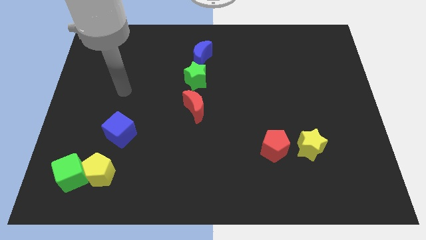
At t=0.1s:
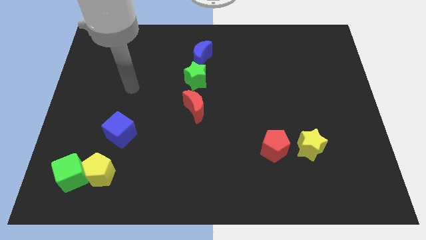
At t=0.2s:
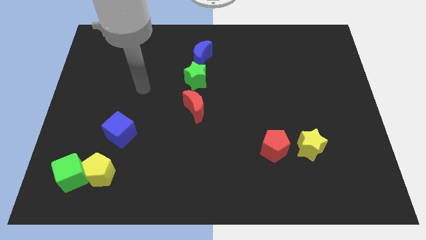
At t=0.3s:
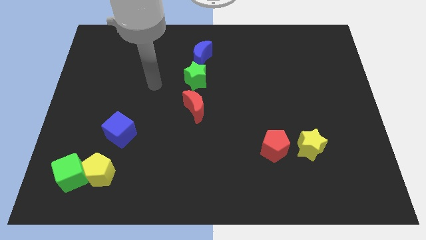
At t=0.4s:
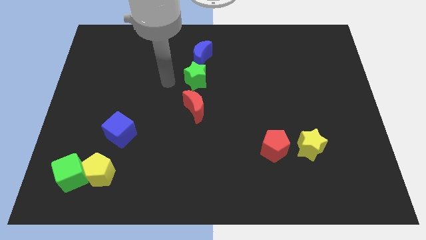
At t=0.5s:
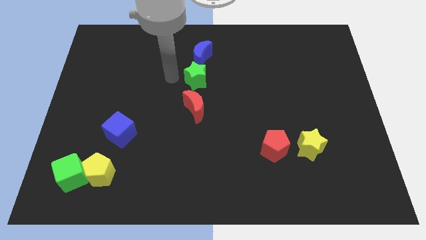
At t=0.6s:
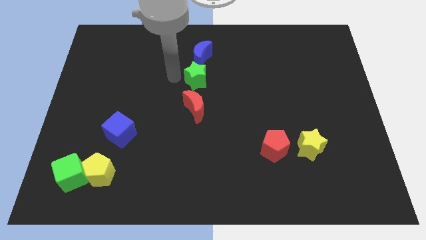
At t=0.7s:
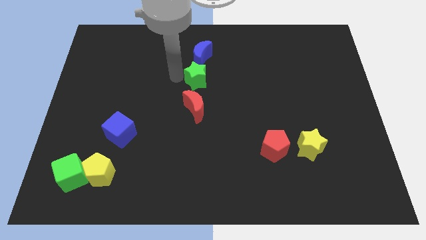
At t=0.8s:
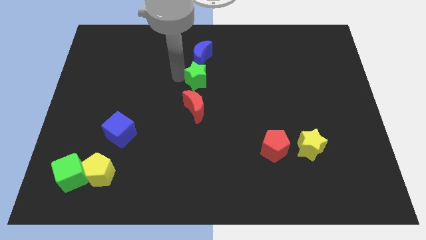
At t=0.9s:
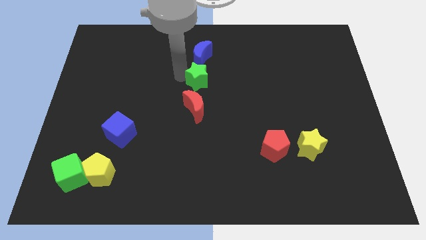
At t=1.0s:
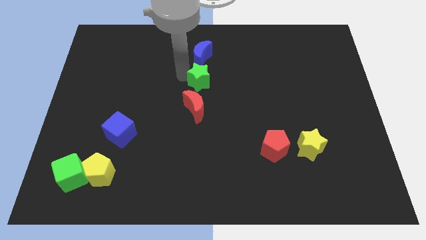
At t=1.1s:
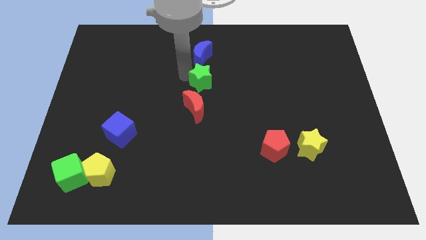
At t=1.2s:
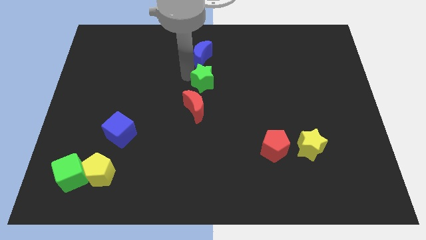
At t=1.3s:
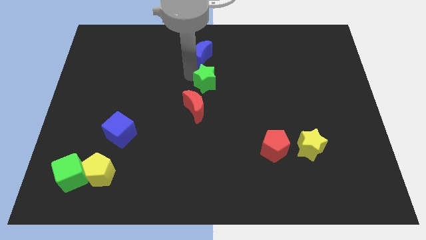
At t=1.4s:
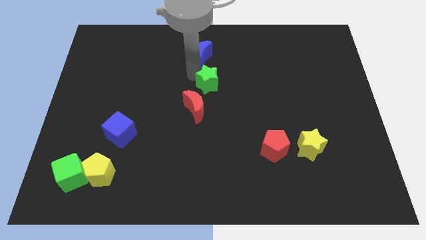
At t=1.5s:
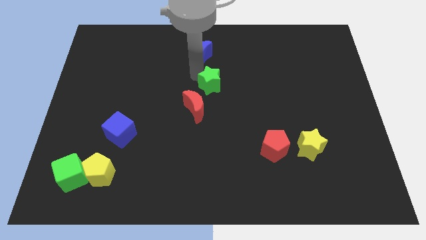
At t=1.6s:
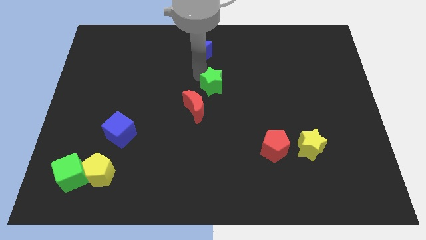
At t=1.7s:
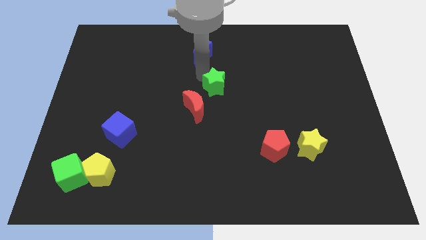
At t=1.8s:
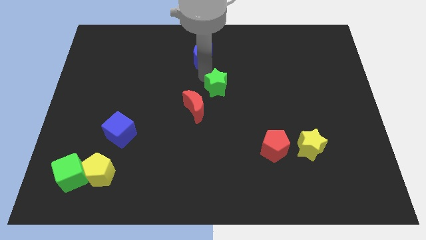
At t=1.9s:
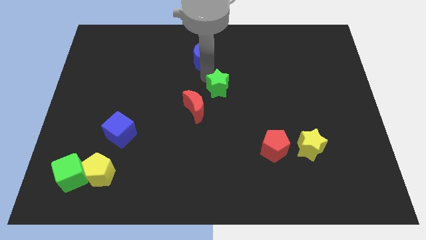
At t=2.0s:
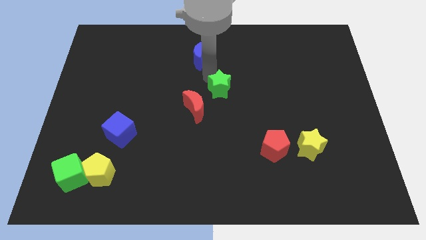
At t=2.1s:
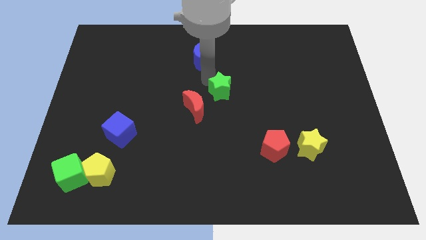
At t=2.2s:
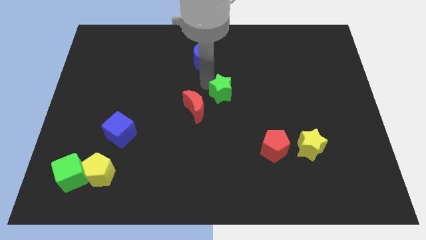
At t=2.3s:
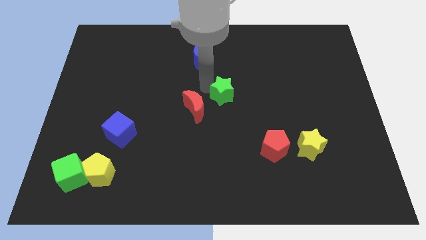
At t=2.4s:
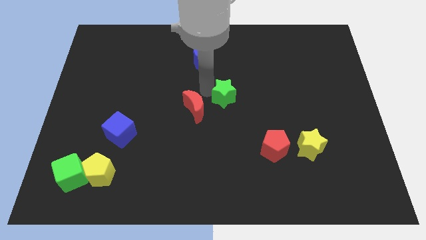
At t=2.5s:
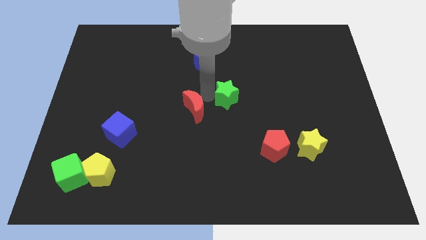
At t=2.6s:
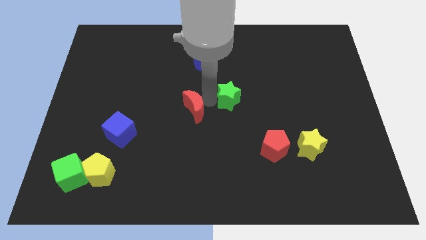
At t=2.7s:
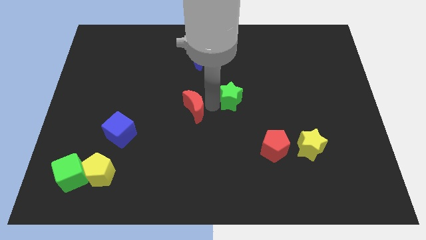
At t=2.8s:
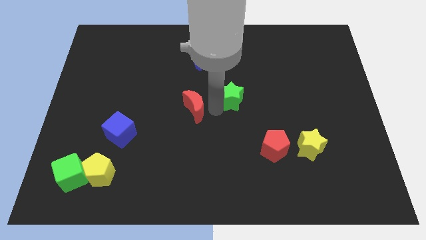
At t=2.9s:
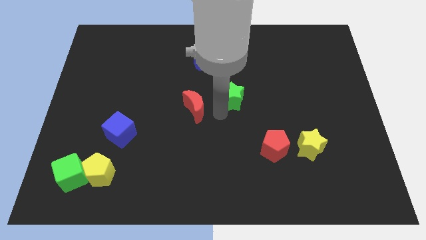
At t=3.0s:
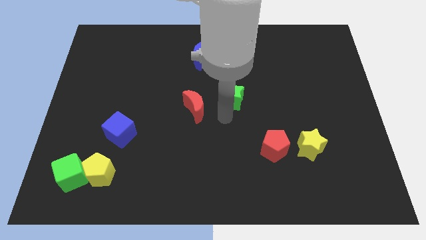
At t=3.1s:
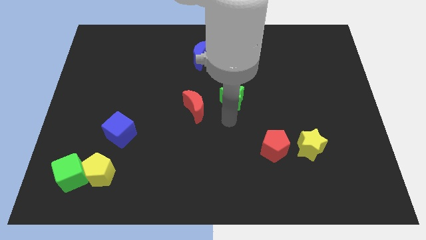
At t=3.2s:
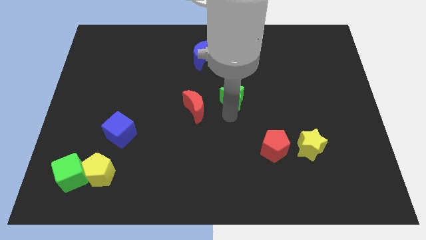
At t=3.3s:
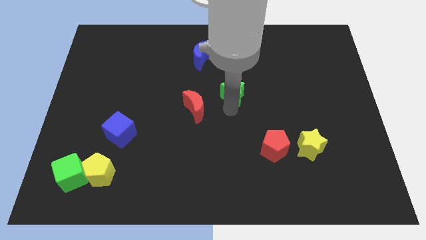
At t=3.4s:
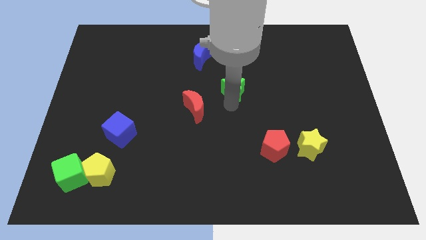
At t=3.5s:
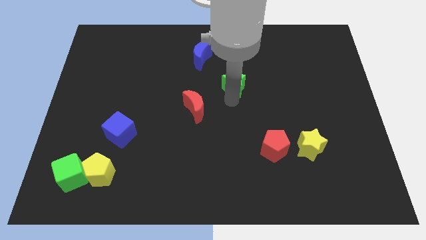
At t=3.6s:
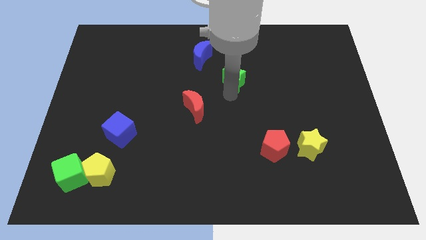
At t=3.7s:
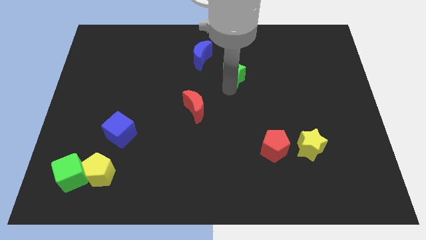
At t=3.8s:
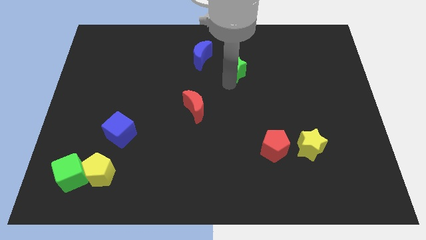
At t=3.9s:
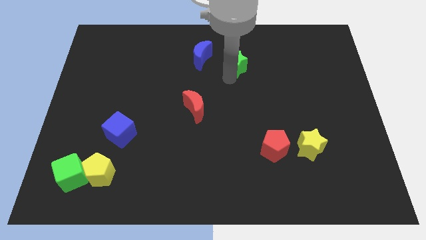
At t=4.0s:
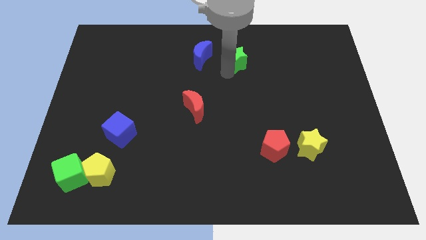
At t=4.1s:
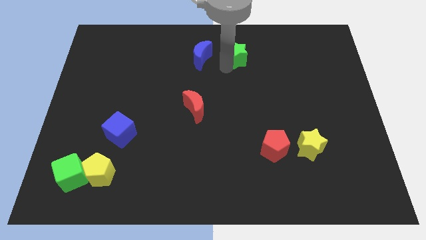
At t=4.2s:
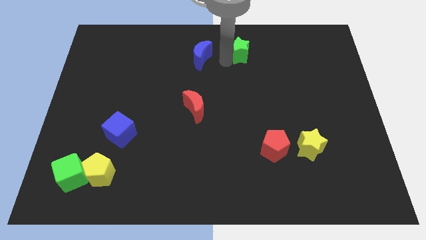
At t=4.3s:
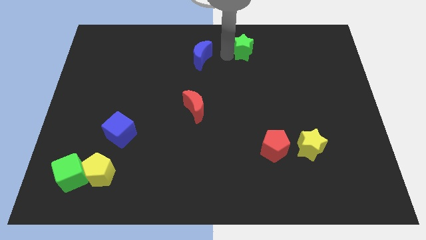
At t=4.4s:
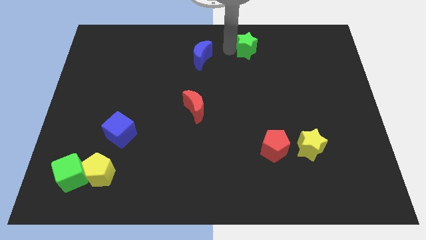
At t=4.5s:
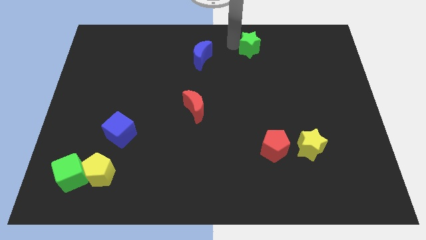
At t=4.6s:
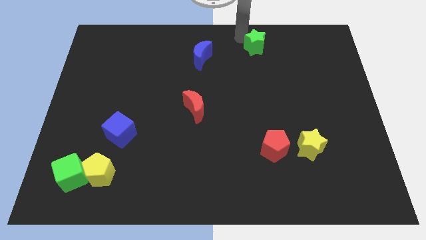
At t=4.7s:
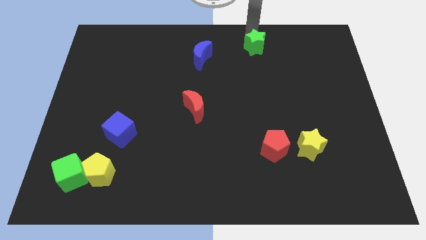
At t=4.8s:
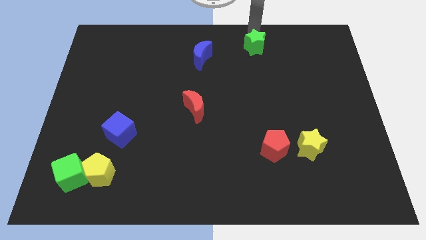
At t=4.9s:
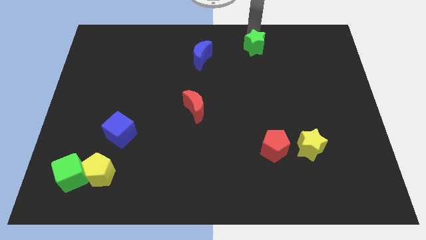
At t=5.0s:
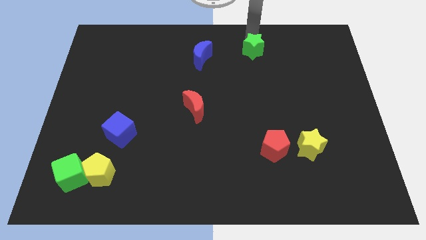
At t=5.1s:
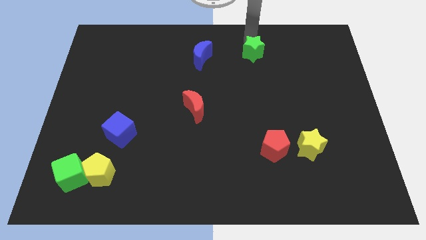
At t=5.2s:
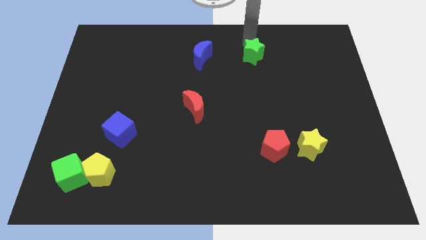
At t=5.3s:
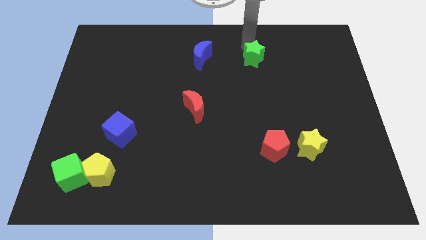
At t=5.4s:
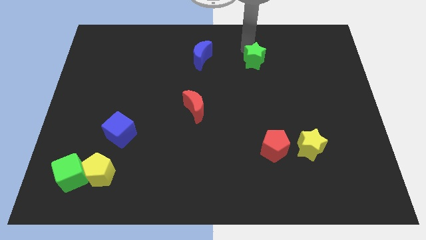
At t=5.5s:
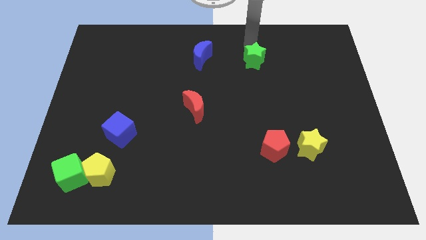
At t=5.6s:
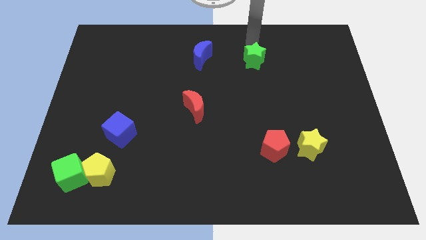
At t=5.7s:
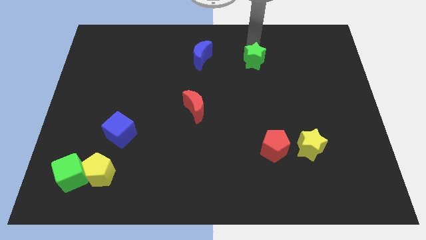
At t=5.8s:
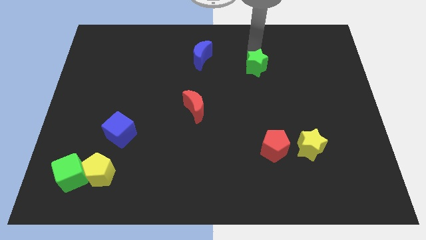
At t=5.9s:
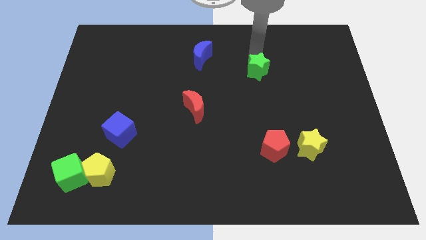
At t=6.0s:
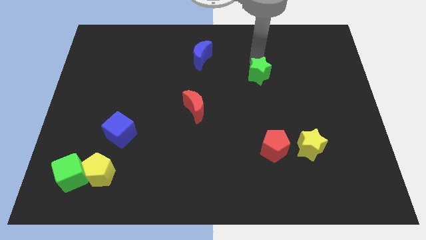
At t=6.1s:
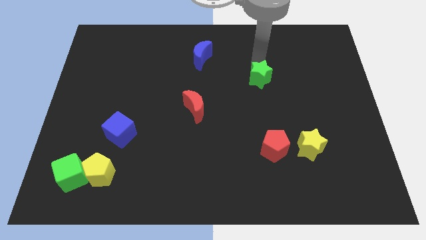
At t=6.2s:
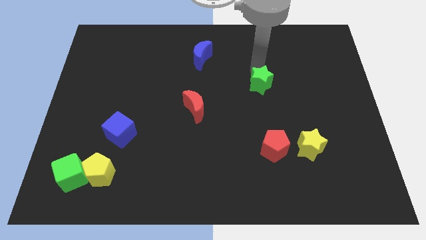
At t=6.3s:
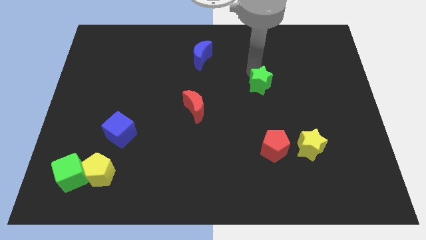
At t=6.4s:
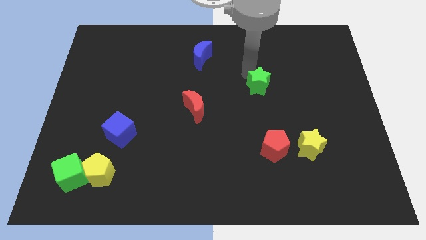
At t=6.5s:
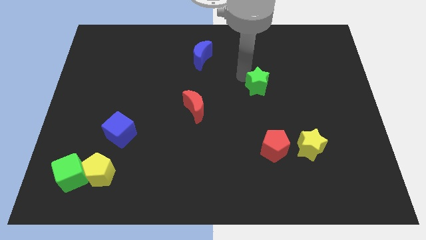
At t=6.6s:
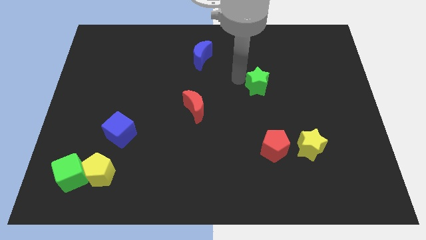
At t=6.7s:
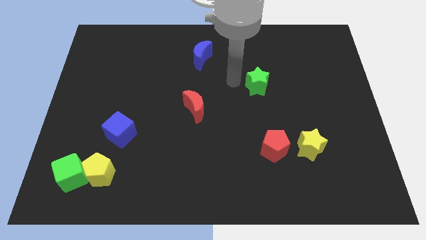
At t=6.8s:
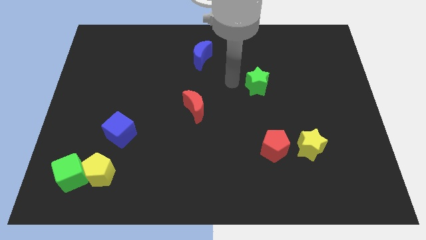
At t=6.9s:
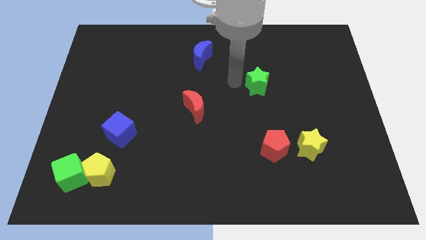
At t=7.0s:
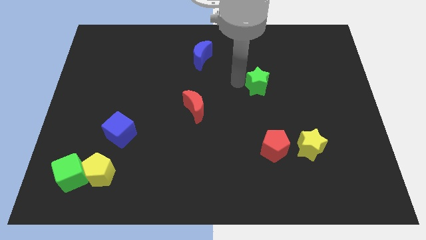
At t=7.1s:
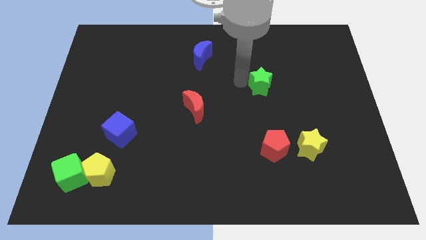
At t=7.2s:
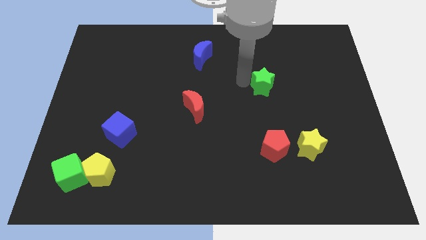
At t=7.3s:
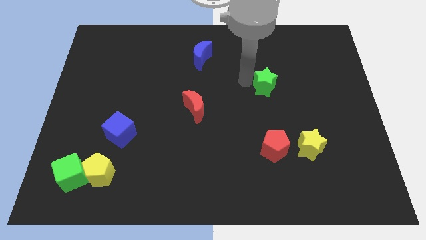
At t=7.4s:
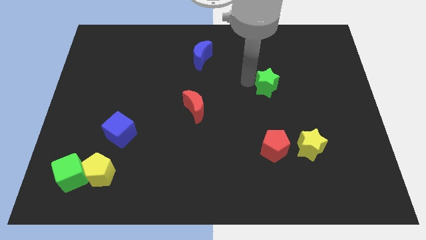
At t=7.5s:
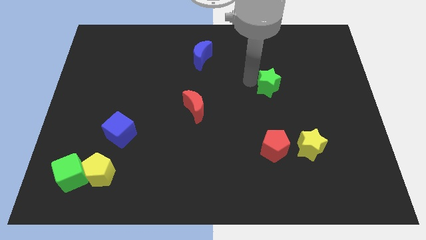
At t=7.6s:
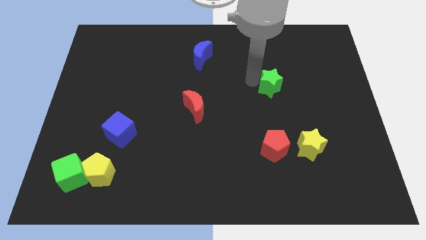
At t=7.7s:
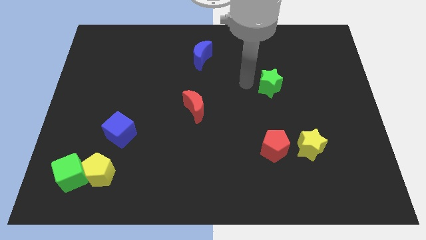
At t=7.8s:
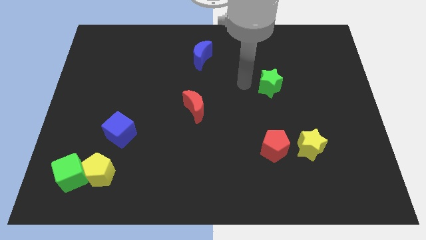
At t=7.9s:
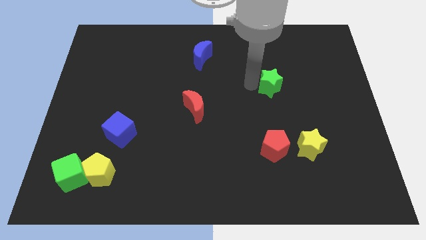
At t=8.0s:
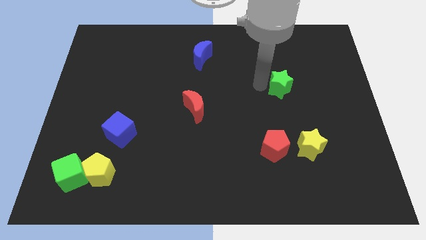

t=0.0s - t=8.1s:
slide the green star to the right
